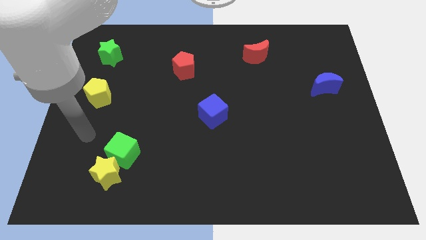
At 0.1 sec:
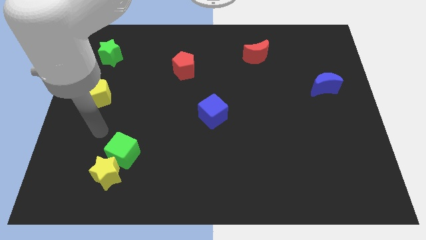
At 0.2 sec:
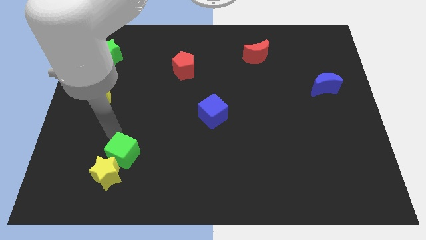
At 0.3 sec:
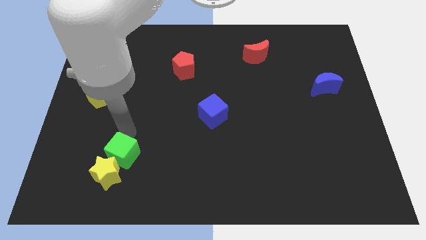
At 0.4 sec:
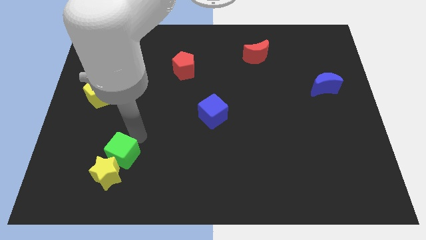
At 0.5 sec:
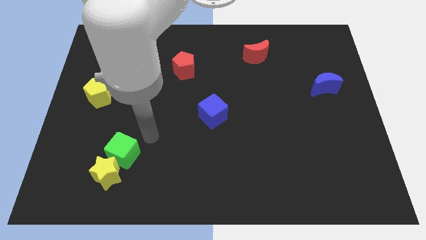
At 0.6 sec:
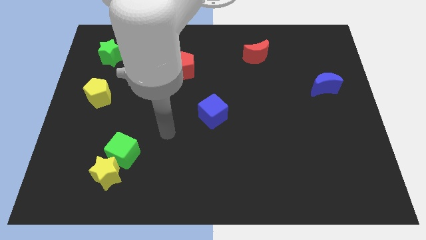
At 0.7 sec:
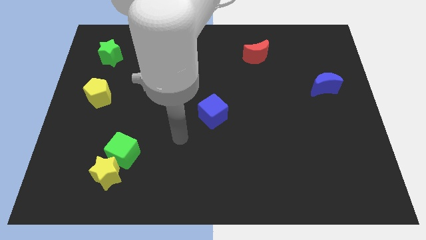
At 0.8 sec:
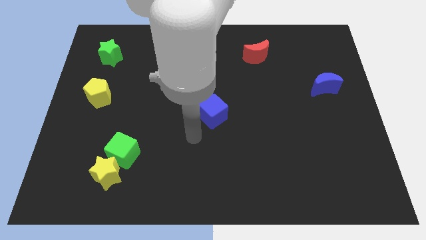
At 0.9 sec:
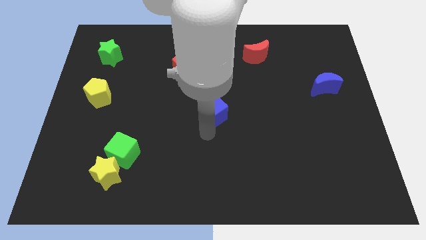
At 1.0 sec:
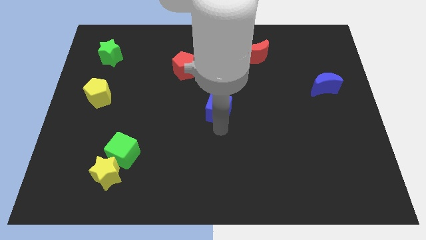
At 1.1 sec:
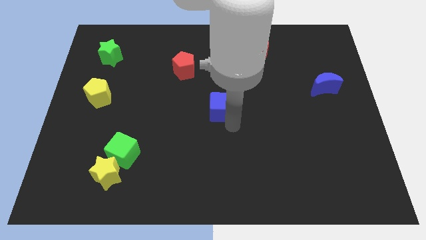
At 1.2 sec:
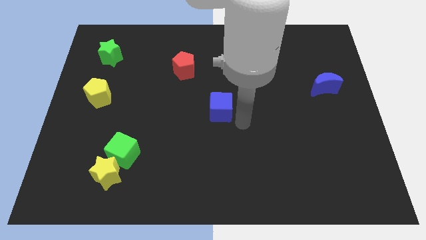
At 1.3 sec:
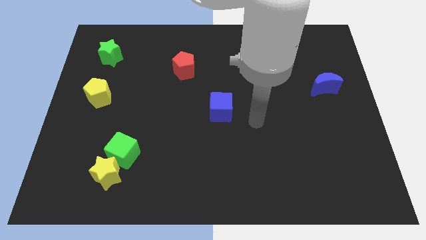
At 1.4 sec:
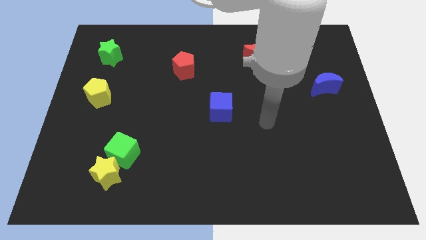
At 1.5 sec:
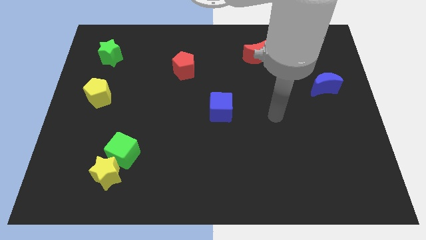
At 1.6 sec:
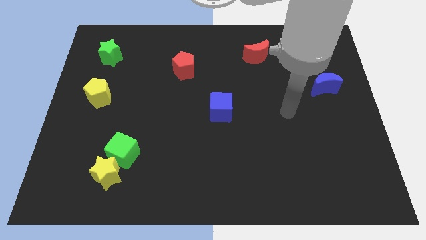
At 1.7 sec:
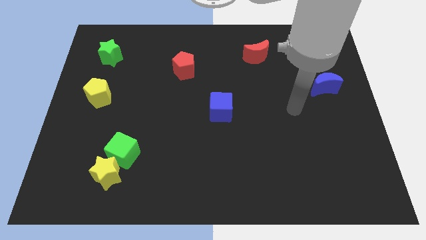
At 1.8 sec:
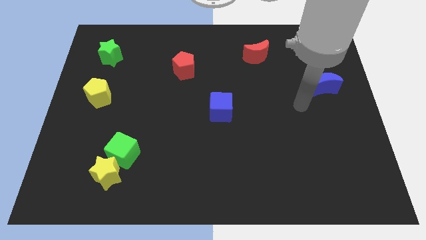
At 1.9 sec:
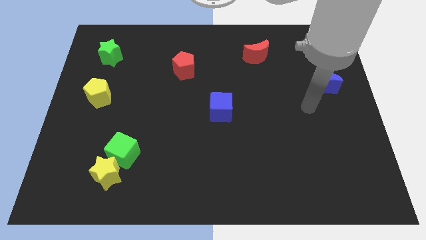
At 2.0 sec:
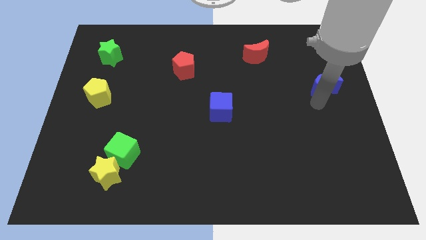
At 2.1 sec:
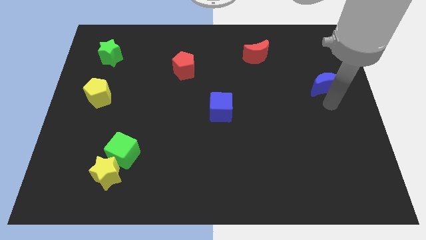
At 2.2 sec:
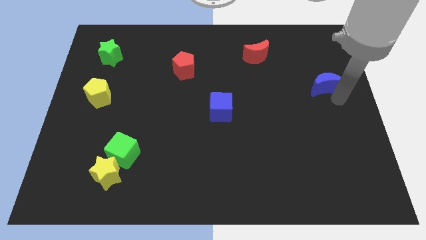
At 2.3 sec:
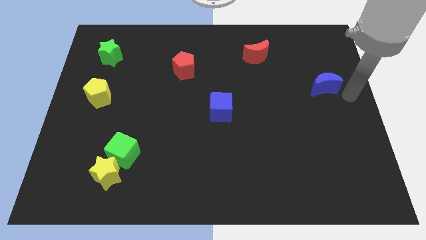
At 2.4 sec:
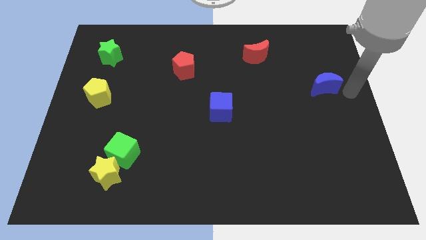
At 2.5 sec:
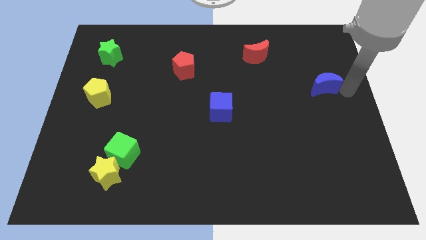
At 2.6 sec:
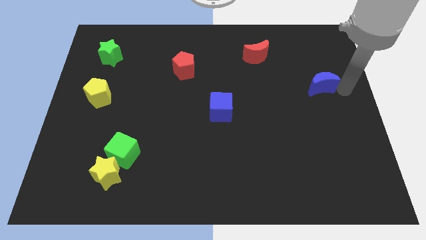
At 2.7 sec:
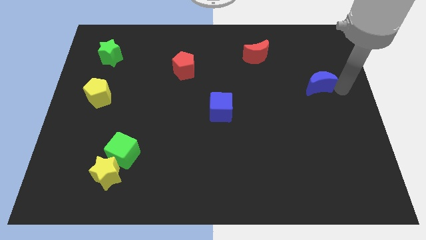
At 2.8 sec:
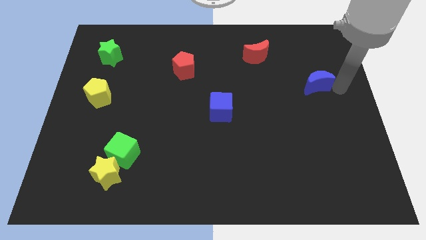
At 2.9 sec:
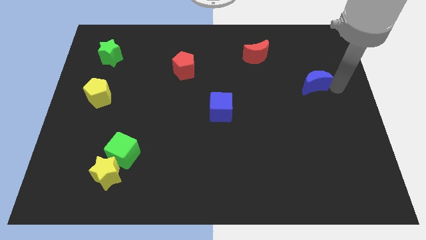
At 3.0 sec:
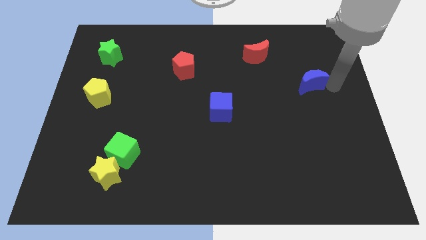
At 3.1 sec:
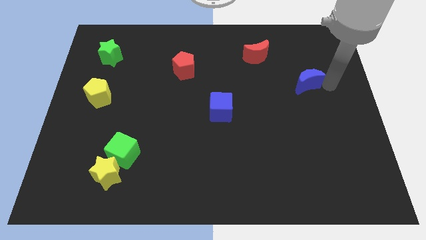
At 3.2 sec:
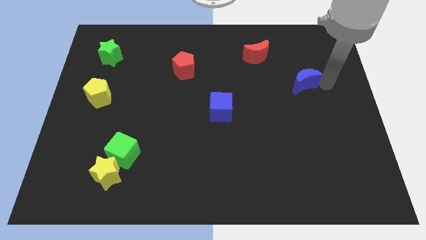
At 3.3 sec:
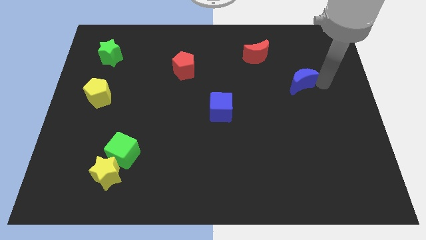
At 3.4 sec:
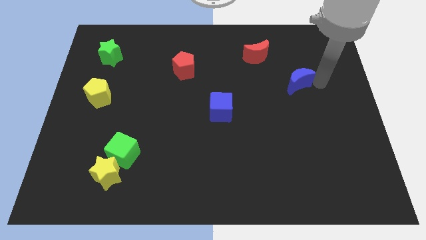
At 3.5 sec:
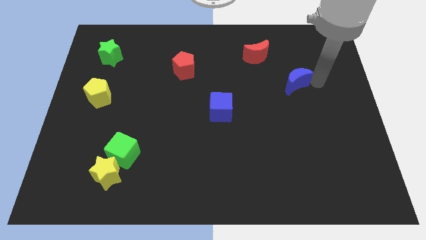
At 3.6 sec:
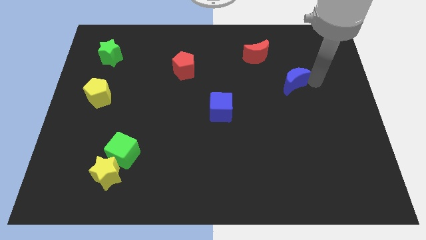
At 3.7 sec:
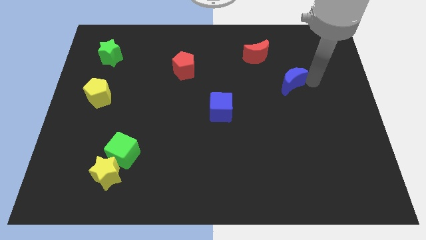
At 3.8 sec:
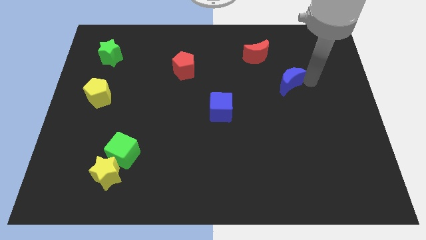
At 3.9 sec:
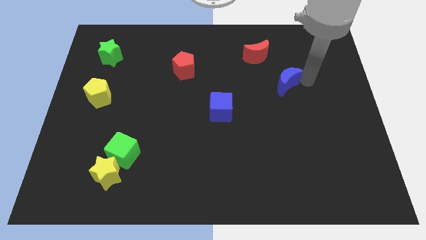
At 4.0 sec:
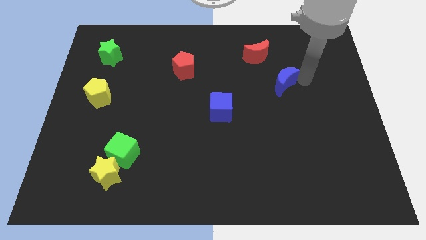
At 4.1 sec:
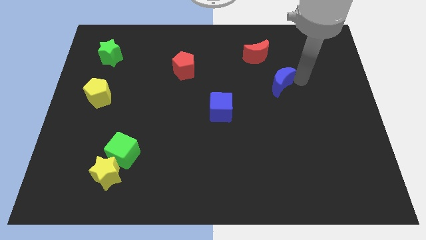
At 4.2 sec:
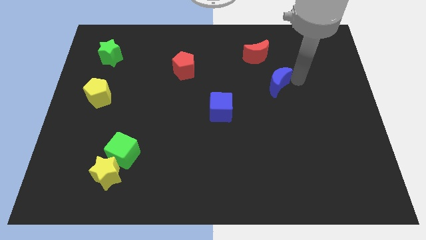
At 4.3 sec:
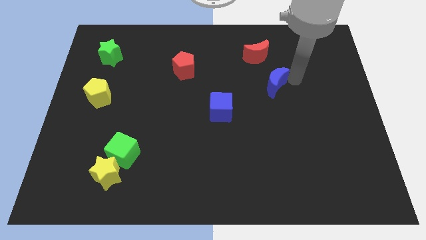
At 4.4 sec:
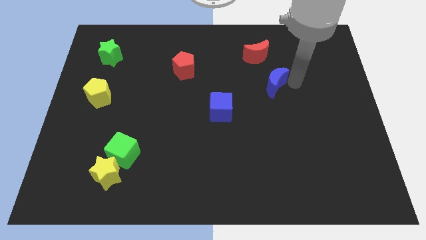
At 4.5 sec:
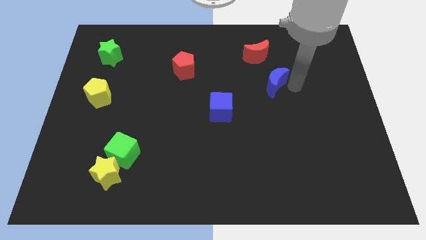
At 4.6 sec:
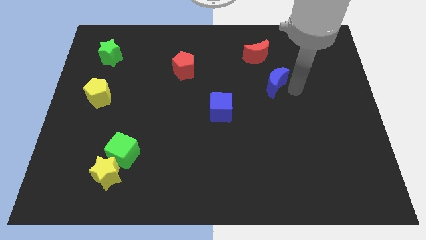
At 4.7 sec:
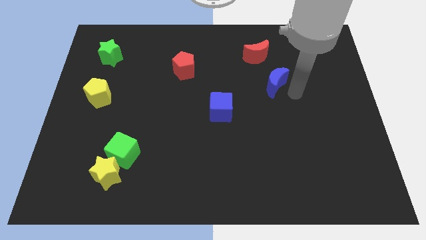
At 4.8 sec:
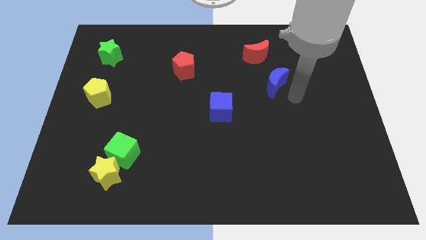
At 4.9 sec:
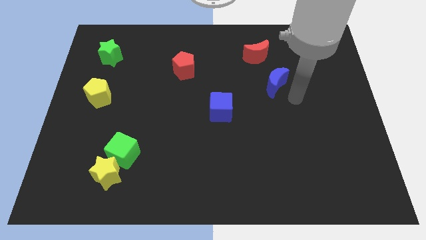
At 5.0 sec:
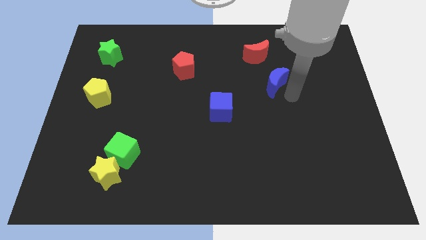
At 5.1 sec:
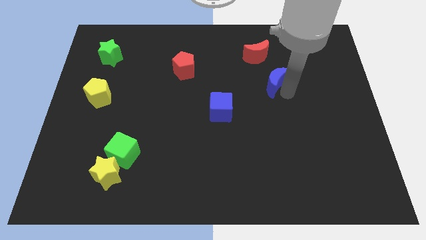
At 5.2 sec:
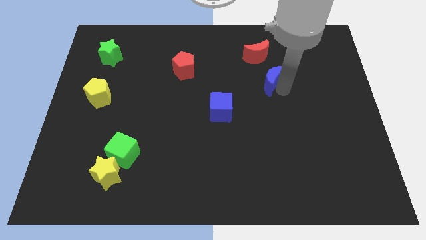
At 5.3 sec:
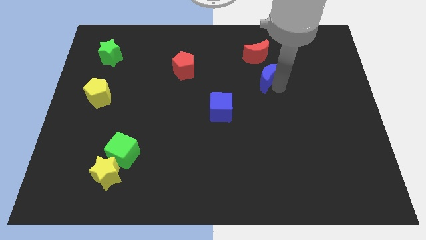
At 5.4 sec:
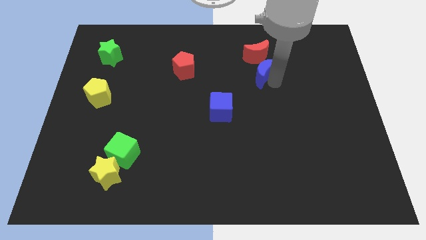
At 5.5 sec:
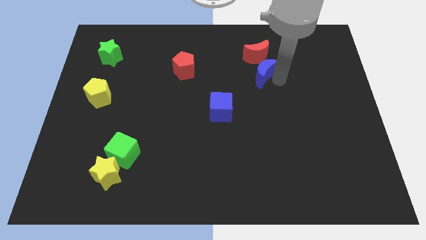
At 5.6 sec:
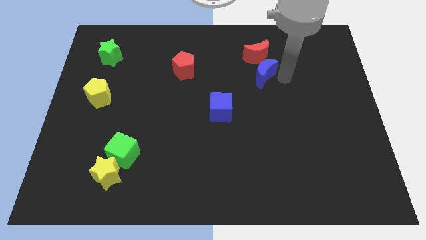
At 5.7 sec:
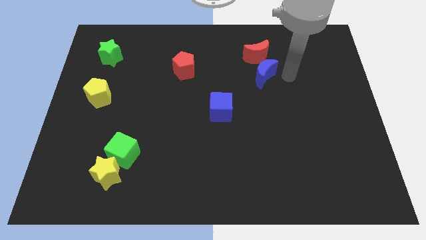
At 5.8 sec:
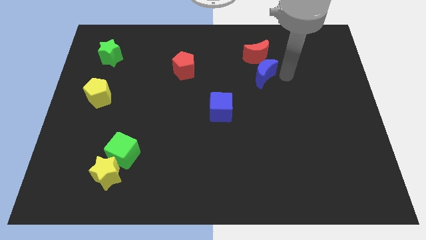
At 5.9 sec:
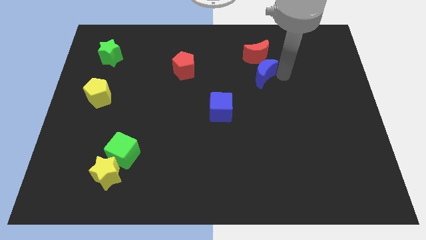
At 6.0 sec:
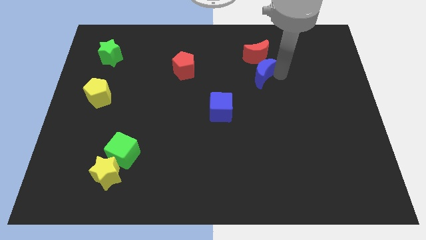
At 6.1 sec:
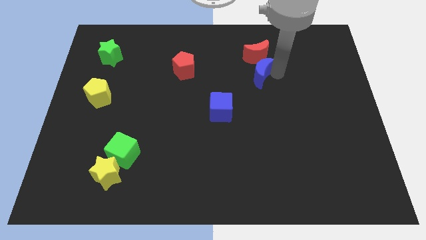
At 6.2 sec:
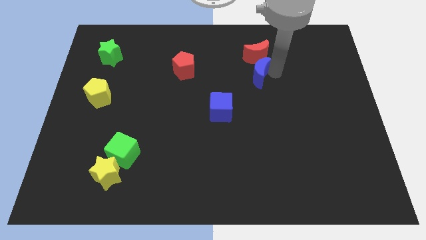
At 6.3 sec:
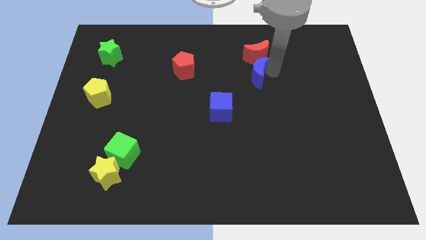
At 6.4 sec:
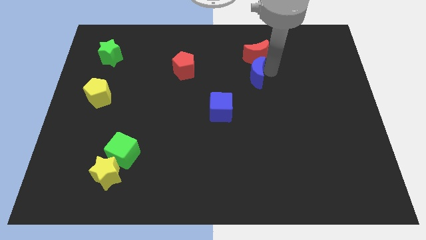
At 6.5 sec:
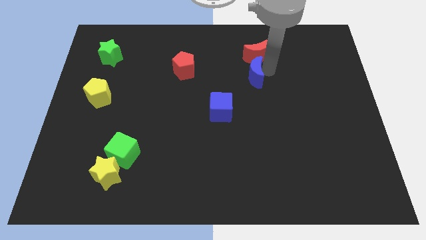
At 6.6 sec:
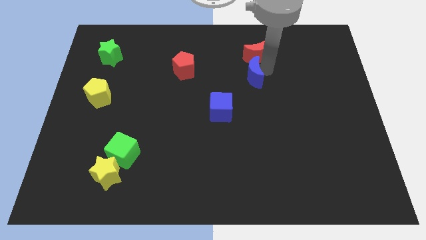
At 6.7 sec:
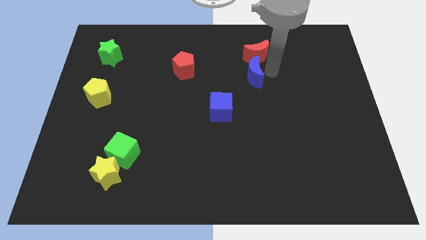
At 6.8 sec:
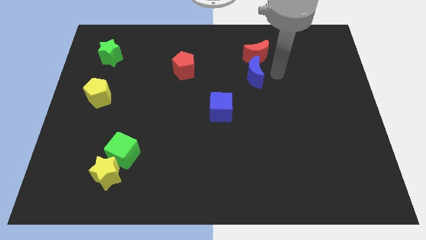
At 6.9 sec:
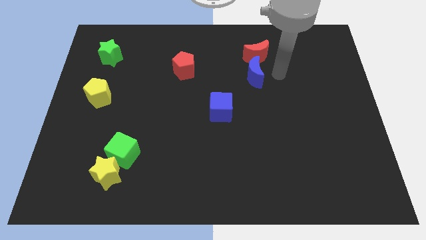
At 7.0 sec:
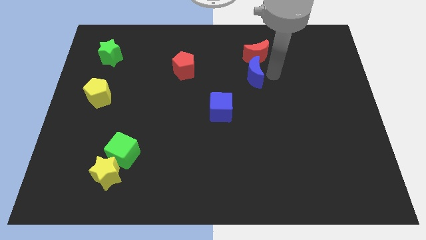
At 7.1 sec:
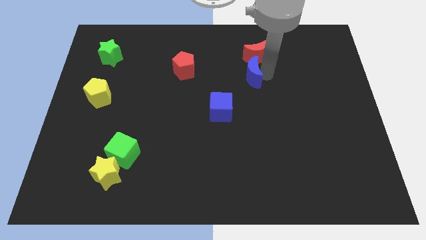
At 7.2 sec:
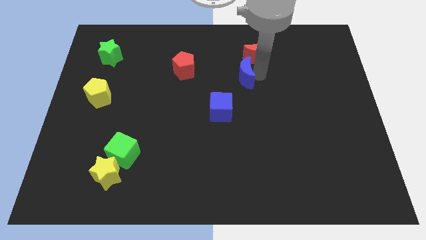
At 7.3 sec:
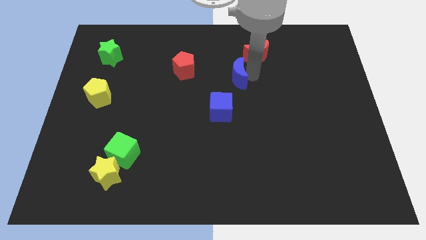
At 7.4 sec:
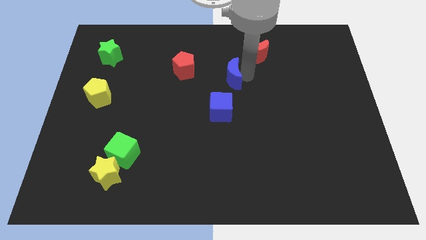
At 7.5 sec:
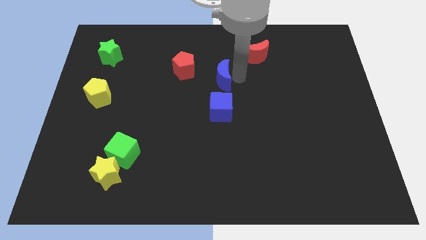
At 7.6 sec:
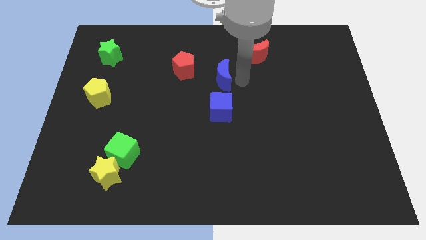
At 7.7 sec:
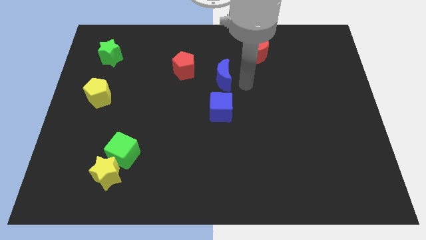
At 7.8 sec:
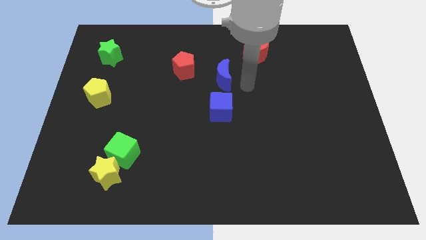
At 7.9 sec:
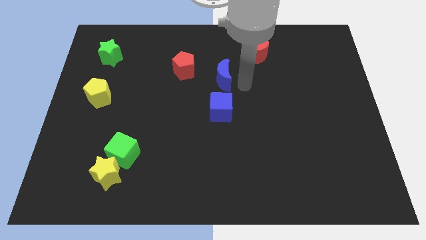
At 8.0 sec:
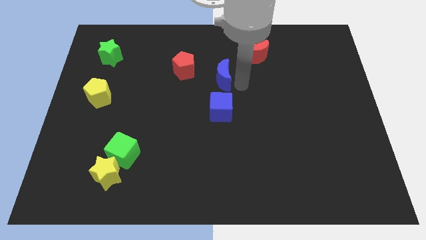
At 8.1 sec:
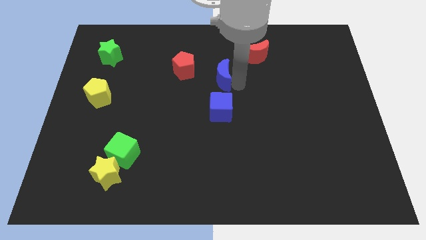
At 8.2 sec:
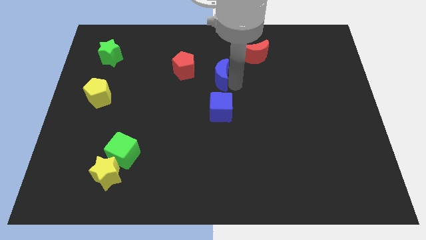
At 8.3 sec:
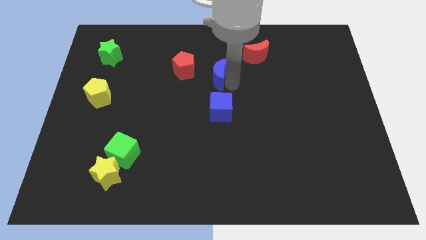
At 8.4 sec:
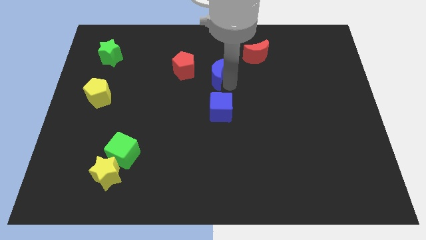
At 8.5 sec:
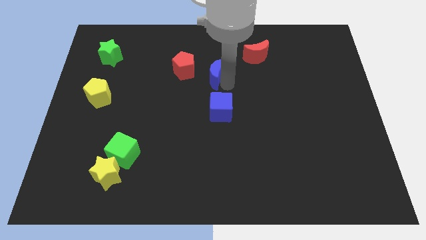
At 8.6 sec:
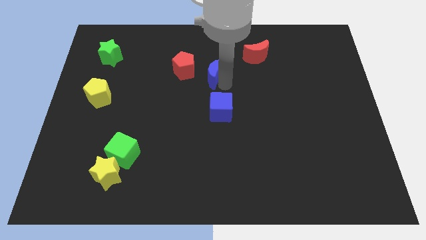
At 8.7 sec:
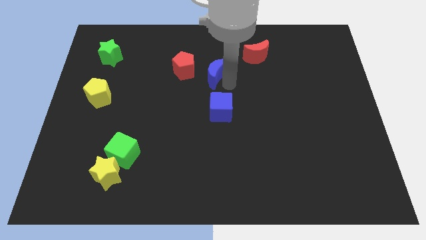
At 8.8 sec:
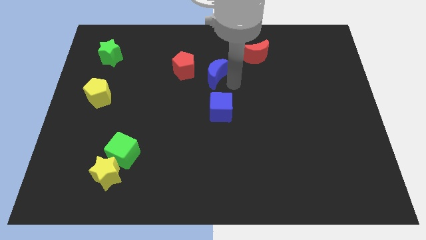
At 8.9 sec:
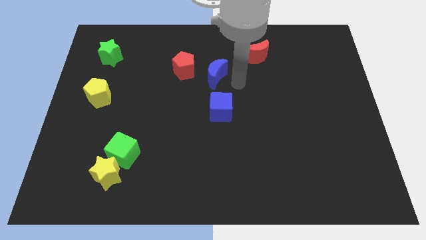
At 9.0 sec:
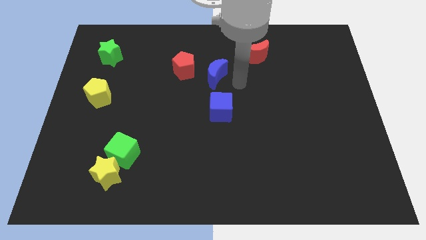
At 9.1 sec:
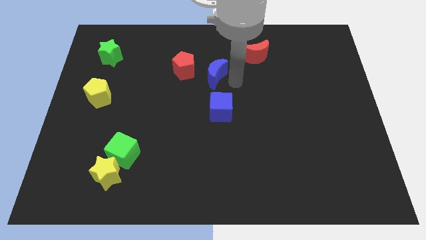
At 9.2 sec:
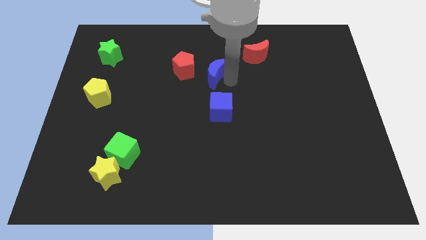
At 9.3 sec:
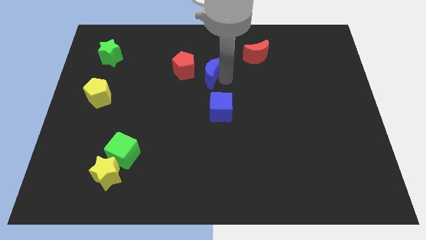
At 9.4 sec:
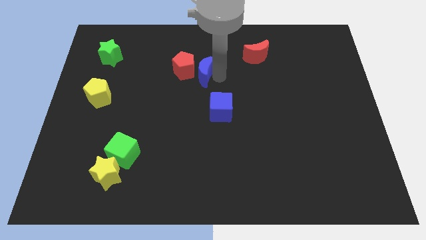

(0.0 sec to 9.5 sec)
put the blue moon towards the red pentagon
